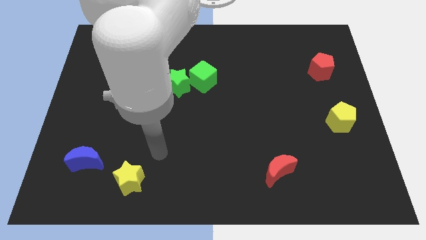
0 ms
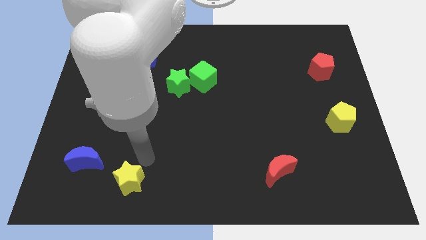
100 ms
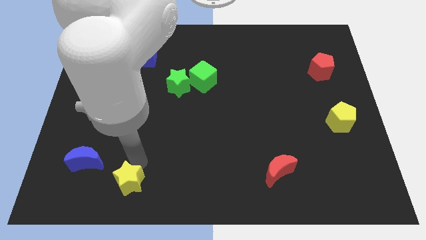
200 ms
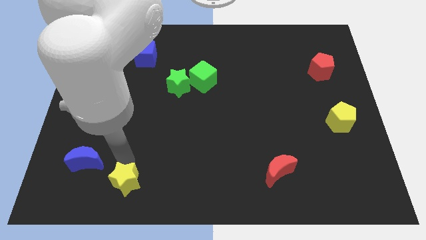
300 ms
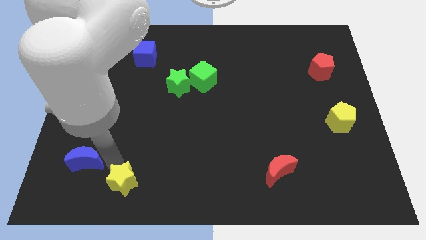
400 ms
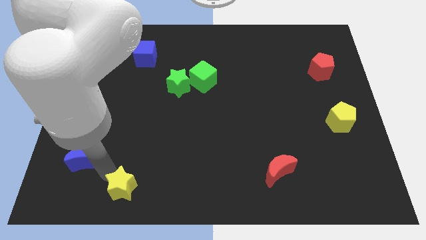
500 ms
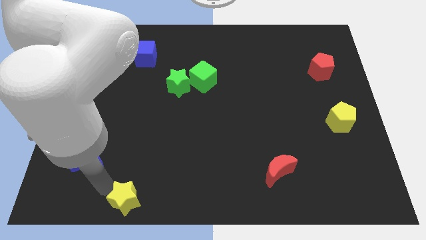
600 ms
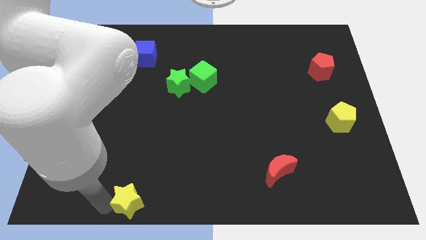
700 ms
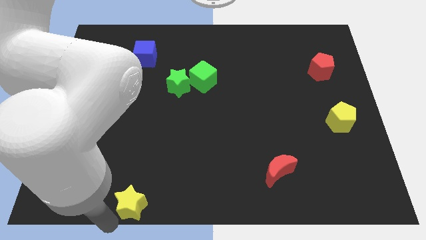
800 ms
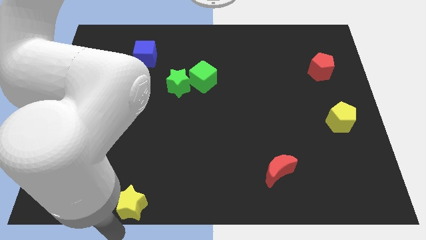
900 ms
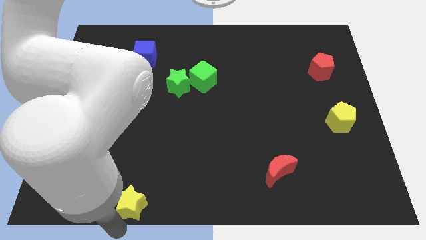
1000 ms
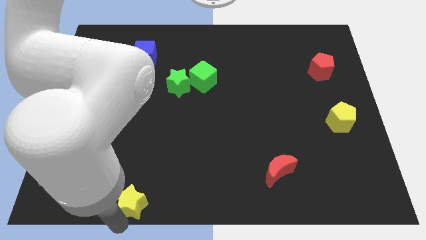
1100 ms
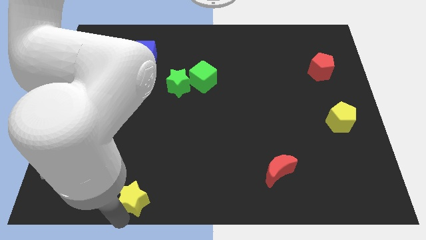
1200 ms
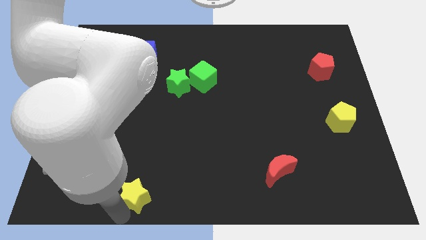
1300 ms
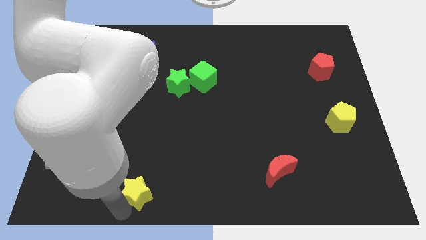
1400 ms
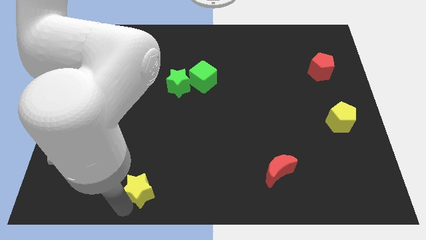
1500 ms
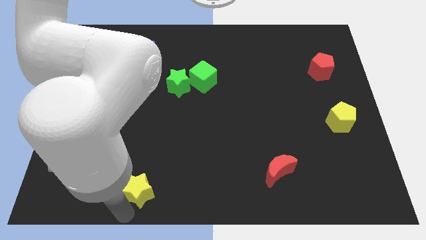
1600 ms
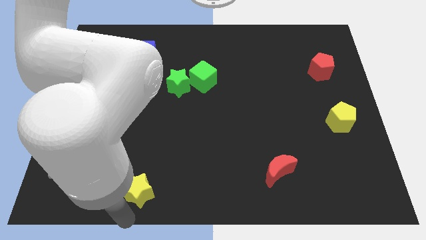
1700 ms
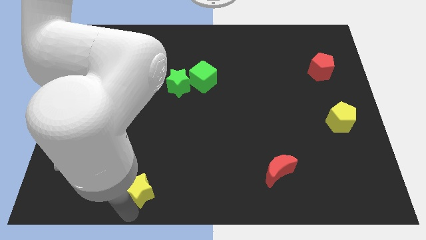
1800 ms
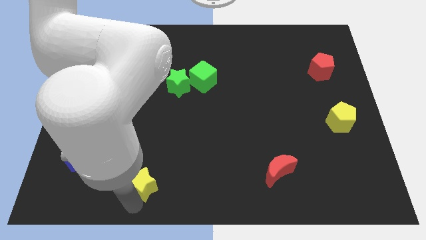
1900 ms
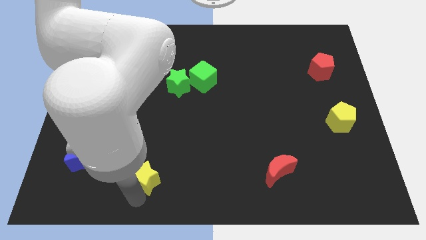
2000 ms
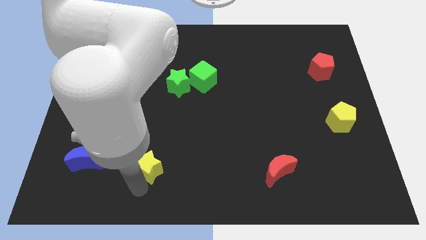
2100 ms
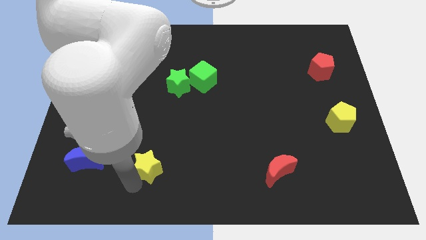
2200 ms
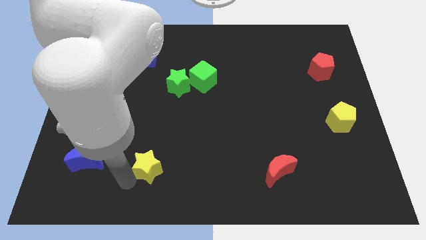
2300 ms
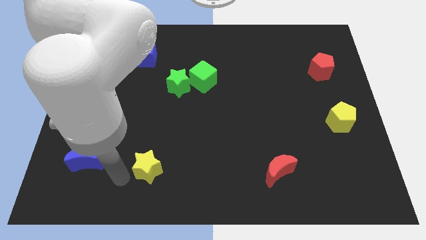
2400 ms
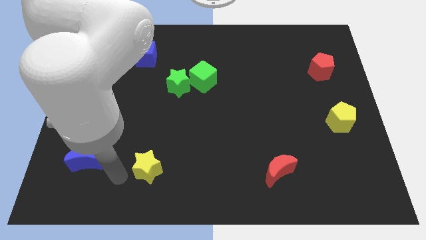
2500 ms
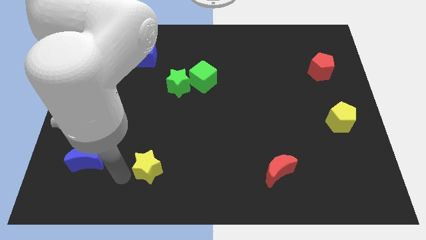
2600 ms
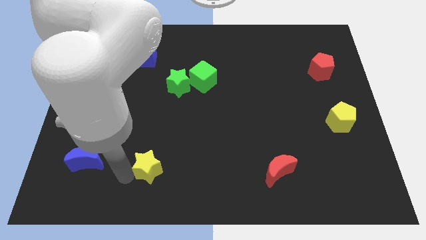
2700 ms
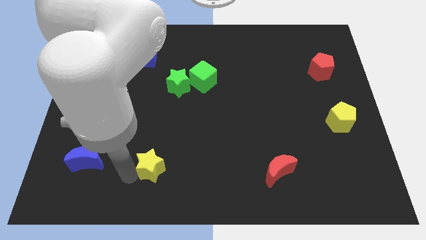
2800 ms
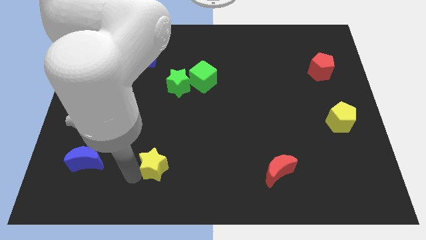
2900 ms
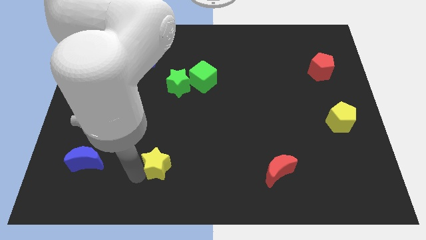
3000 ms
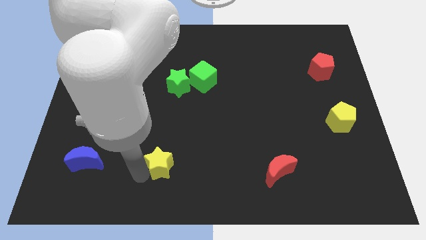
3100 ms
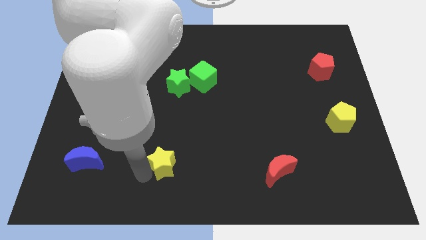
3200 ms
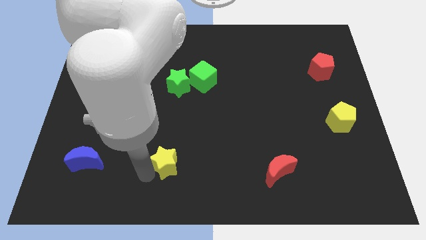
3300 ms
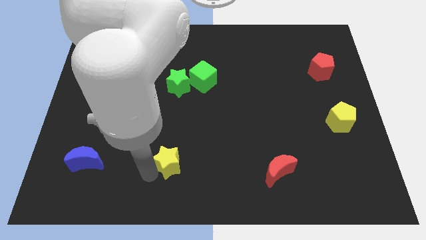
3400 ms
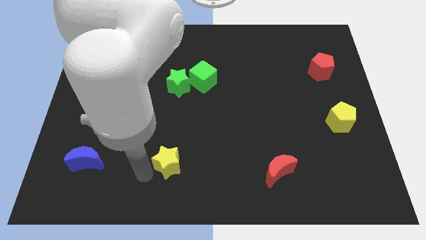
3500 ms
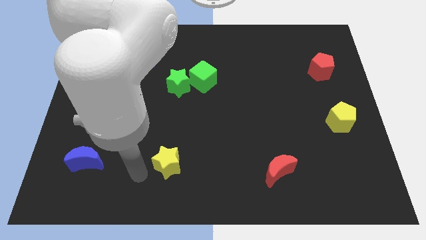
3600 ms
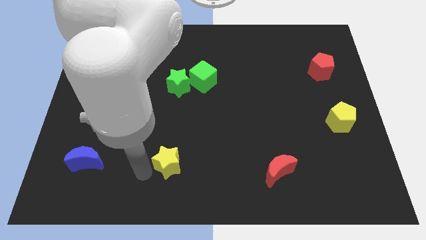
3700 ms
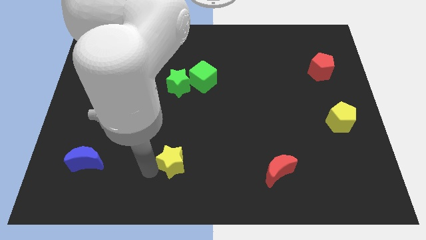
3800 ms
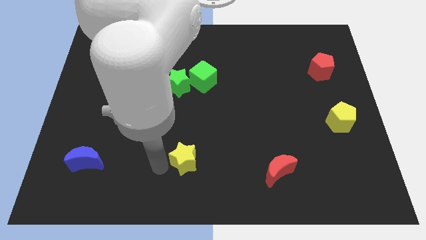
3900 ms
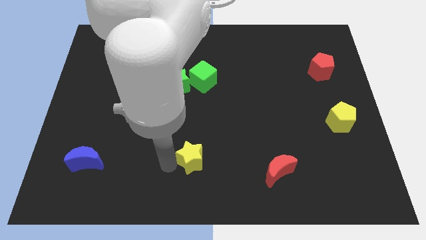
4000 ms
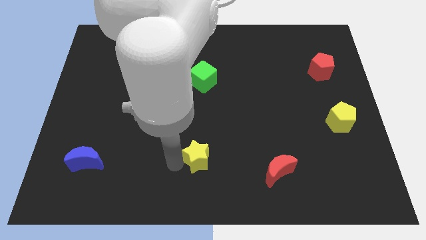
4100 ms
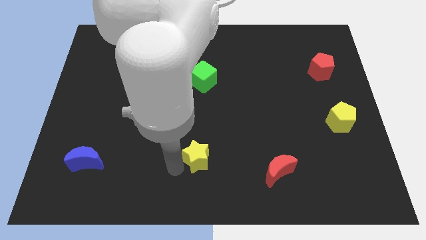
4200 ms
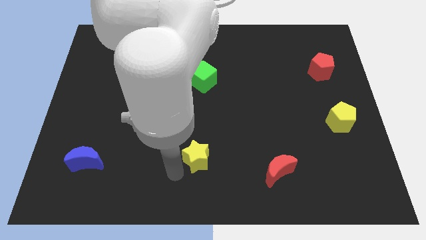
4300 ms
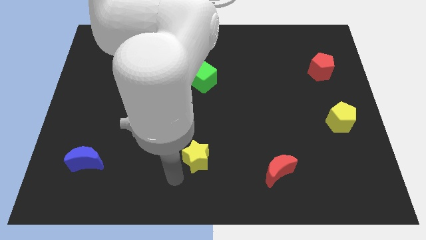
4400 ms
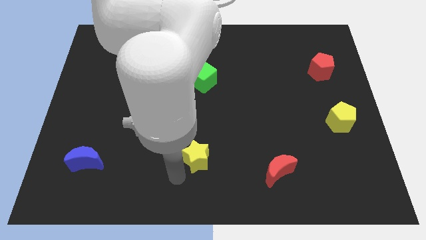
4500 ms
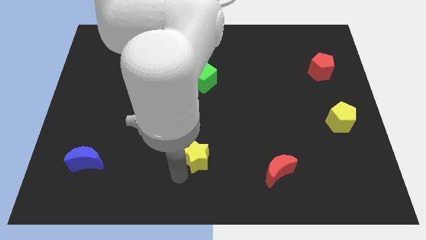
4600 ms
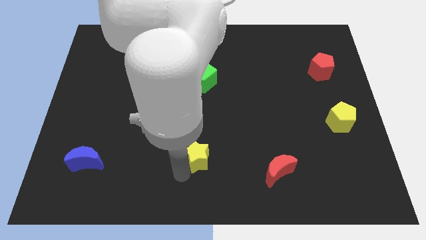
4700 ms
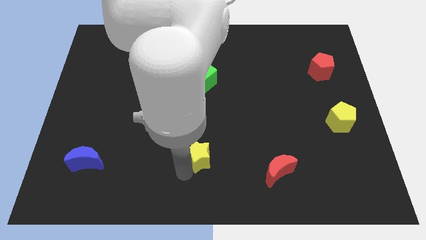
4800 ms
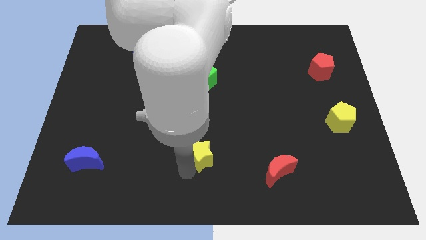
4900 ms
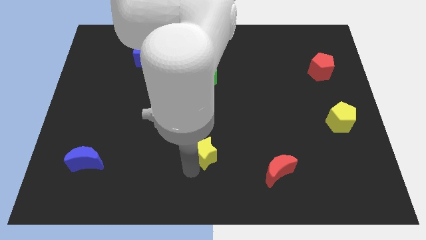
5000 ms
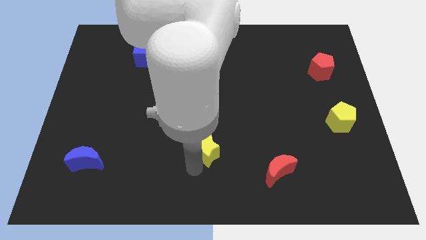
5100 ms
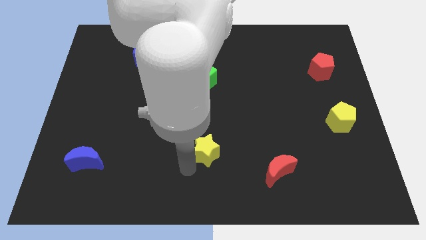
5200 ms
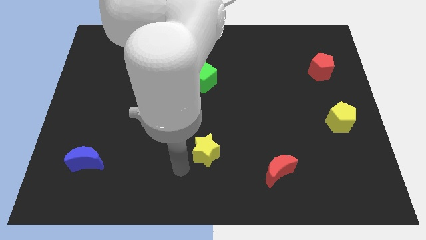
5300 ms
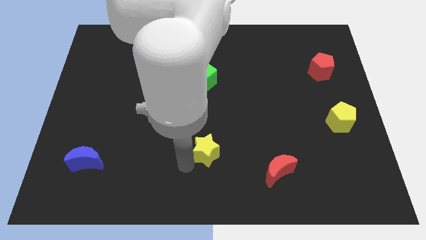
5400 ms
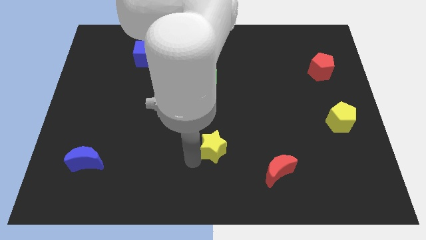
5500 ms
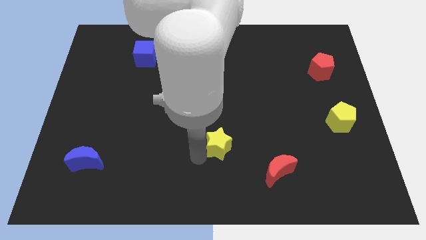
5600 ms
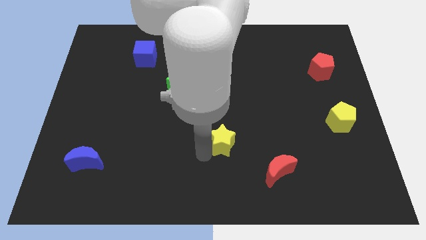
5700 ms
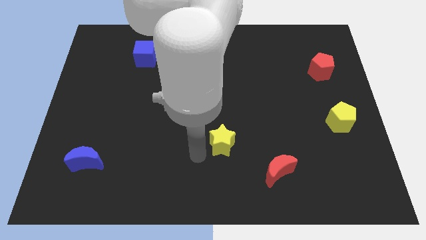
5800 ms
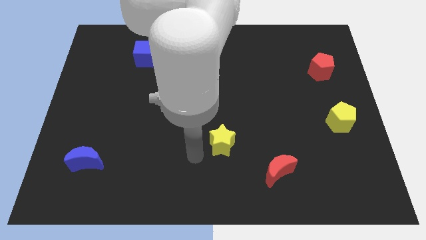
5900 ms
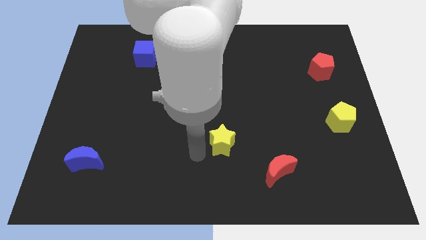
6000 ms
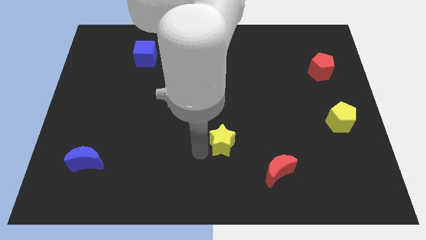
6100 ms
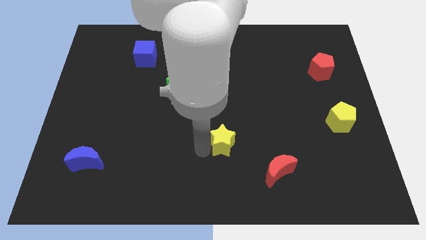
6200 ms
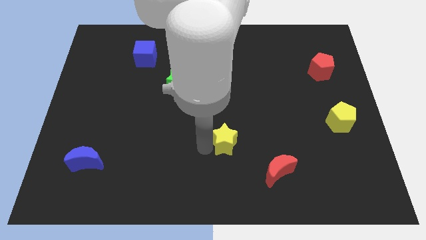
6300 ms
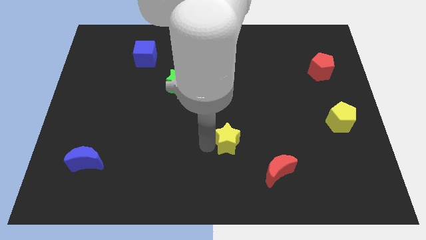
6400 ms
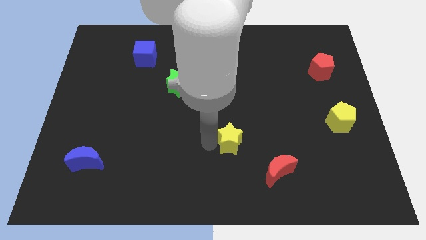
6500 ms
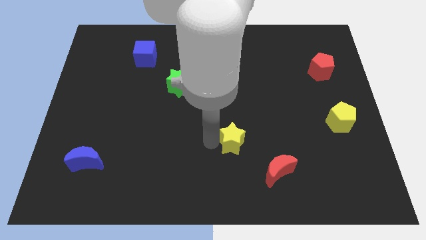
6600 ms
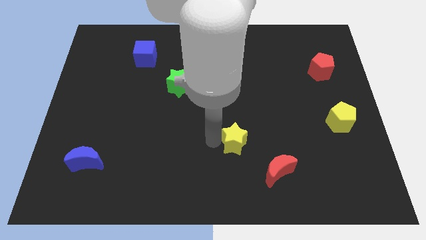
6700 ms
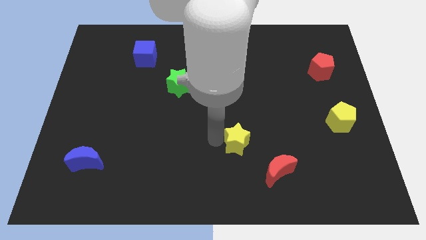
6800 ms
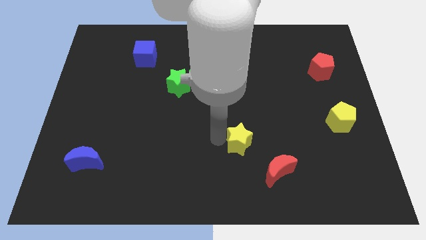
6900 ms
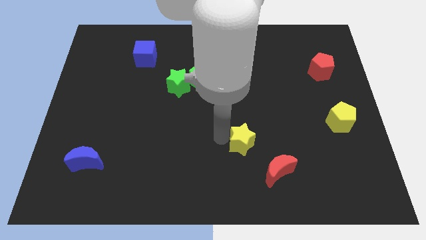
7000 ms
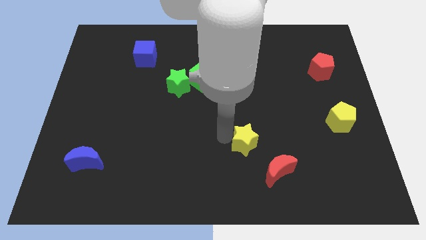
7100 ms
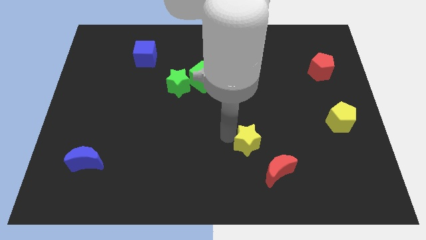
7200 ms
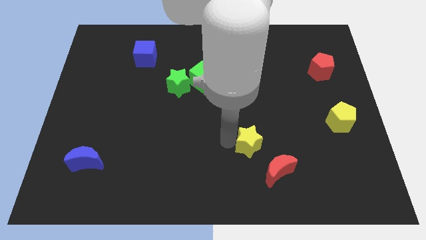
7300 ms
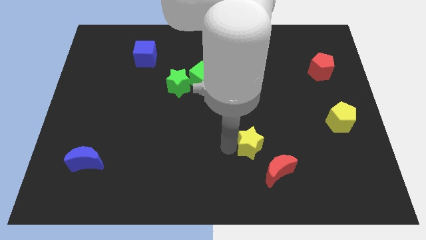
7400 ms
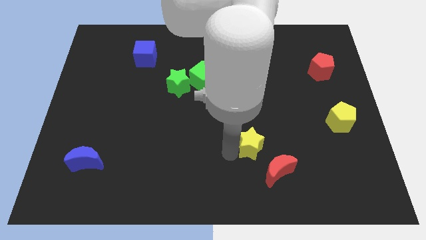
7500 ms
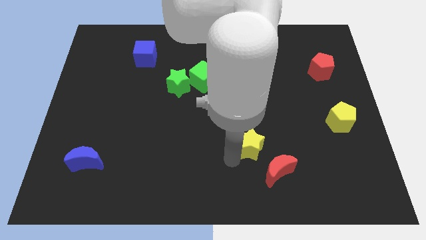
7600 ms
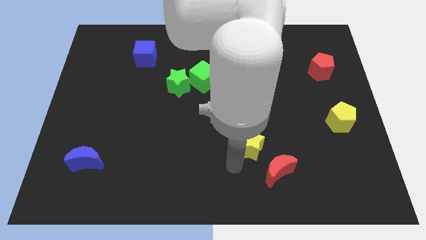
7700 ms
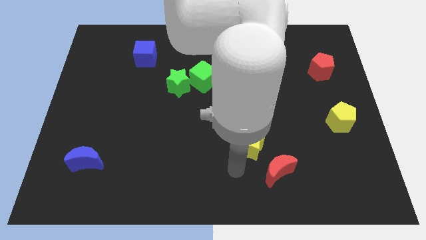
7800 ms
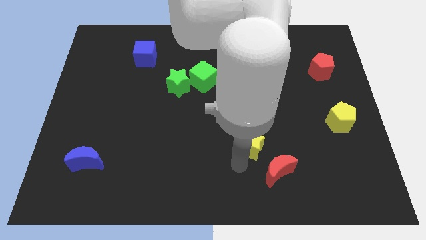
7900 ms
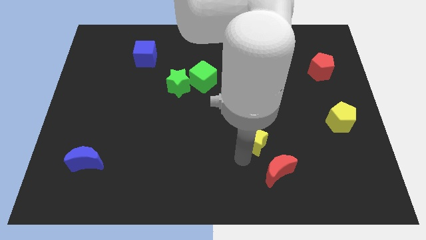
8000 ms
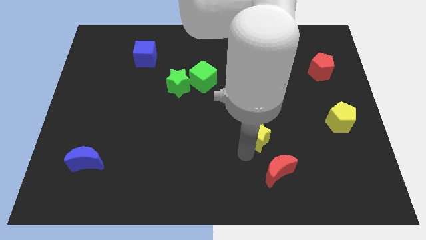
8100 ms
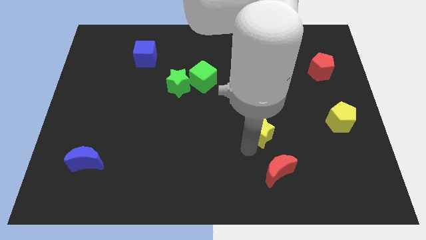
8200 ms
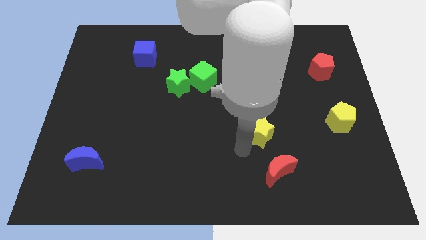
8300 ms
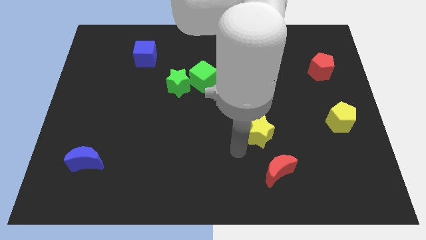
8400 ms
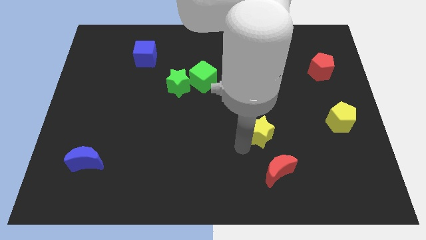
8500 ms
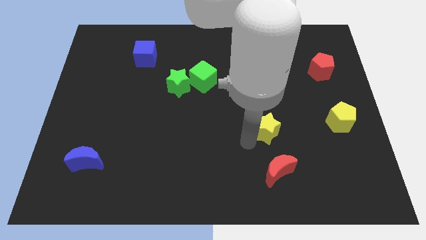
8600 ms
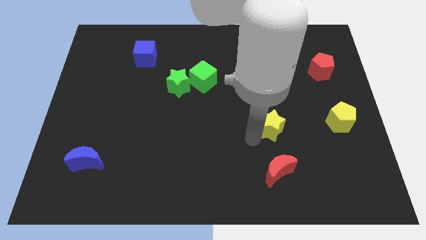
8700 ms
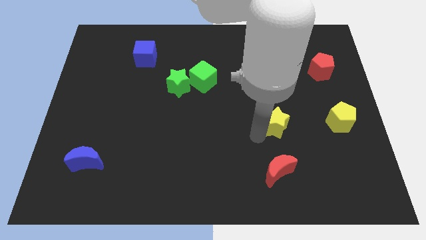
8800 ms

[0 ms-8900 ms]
put the yellow star to the left of the yellow pentagon
